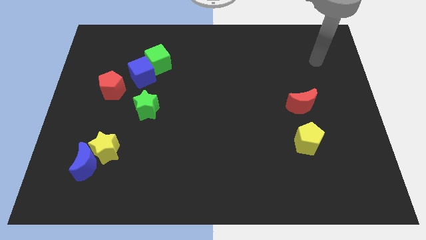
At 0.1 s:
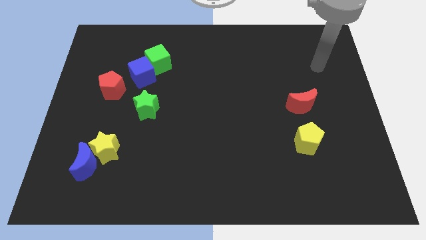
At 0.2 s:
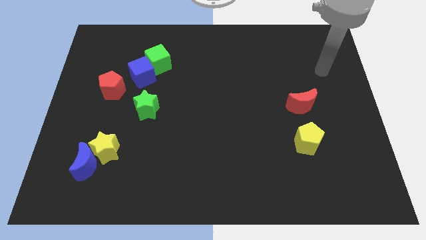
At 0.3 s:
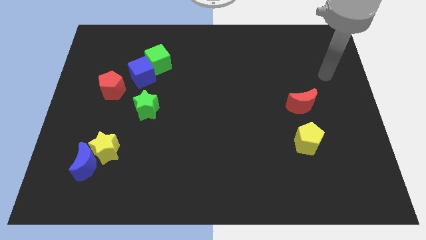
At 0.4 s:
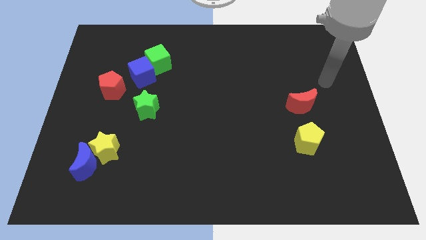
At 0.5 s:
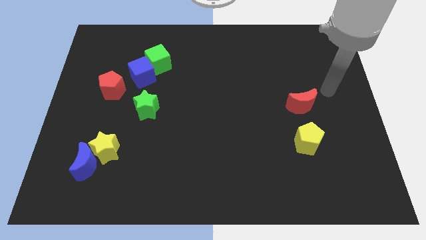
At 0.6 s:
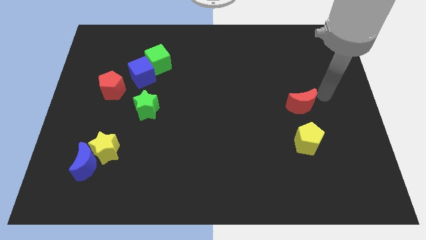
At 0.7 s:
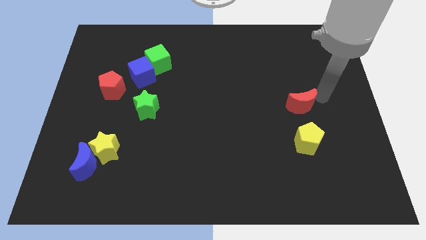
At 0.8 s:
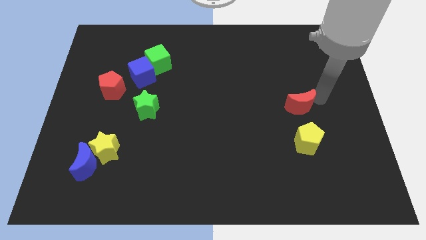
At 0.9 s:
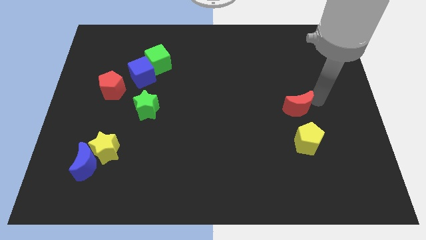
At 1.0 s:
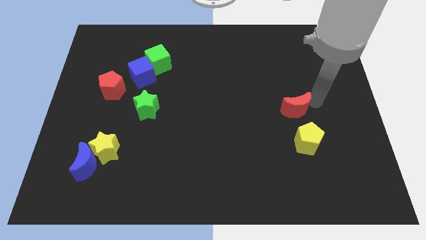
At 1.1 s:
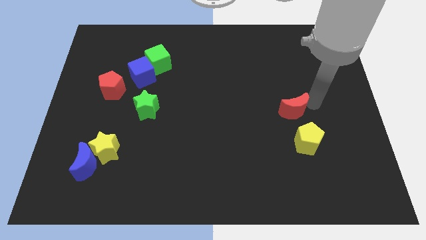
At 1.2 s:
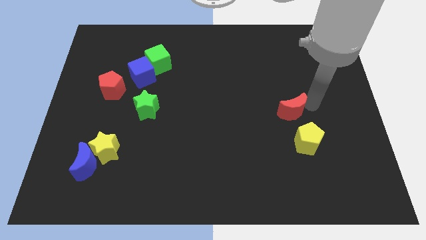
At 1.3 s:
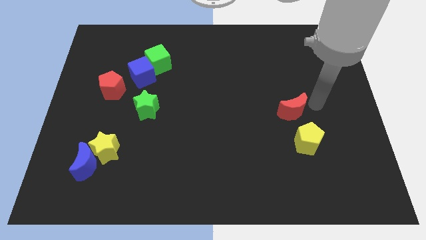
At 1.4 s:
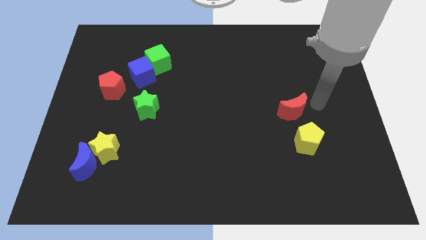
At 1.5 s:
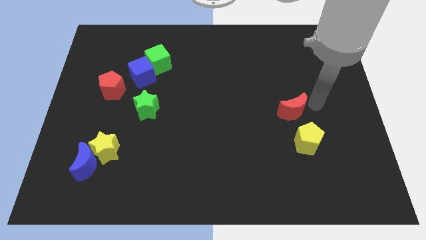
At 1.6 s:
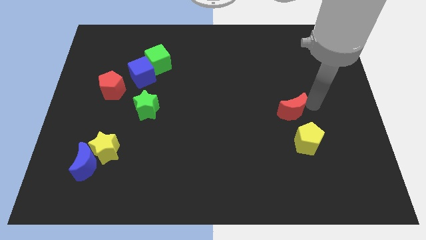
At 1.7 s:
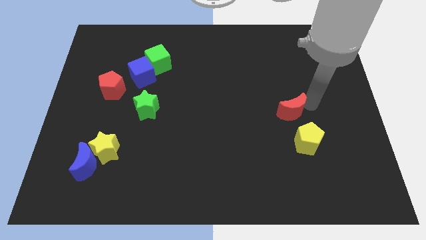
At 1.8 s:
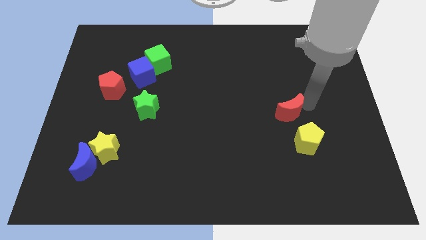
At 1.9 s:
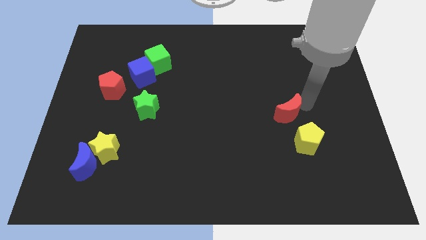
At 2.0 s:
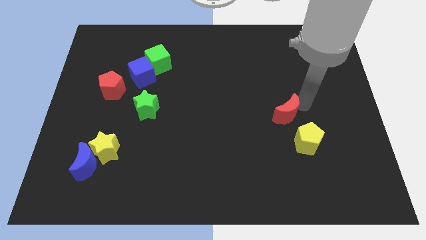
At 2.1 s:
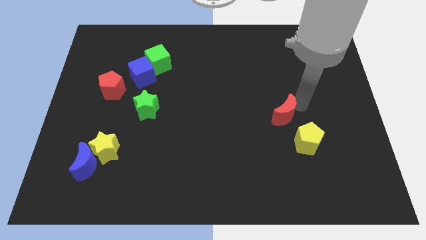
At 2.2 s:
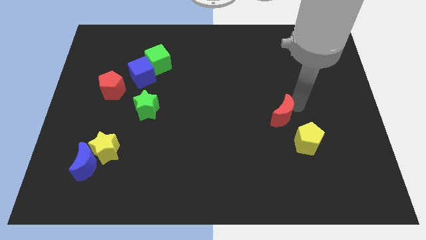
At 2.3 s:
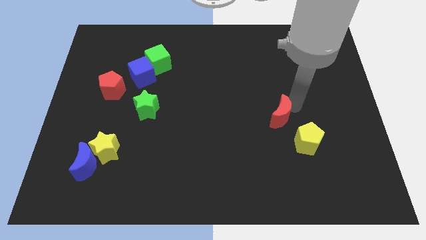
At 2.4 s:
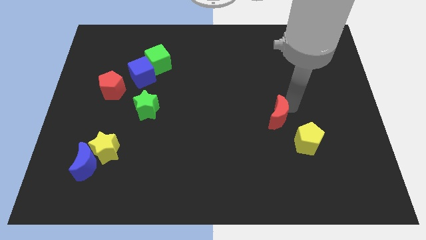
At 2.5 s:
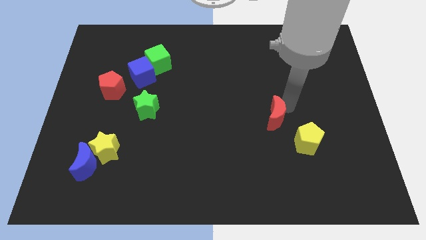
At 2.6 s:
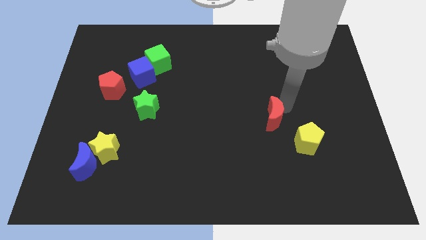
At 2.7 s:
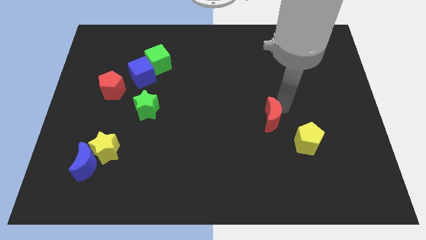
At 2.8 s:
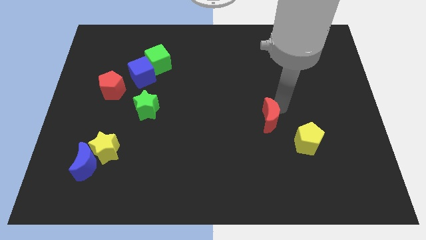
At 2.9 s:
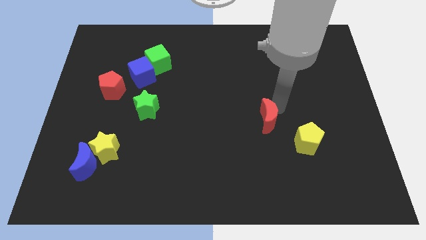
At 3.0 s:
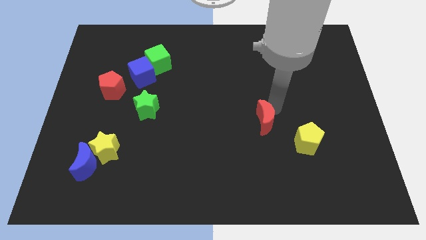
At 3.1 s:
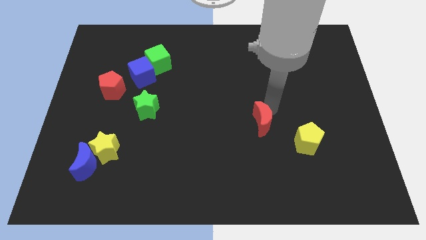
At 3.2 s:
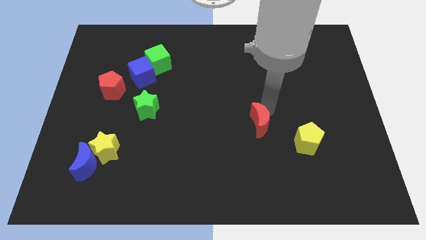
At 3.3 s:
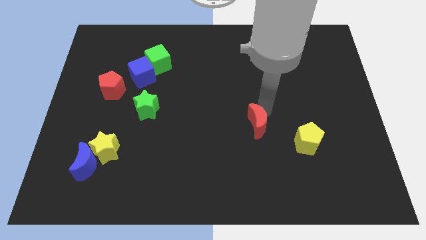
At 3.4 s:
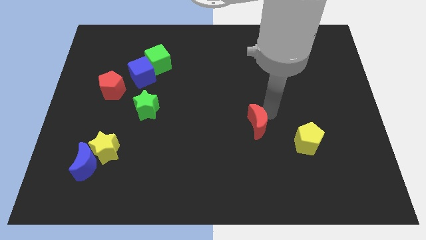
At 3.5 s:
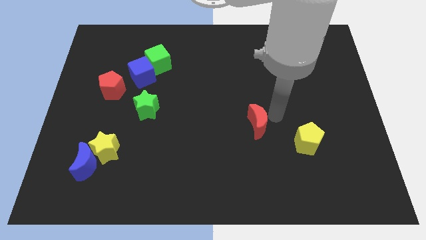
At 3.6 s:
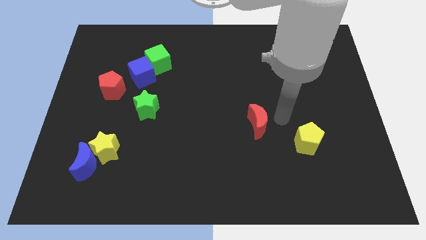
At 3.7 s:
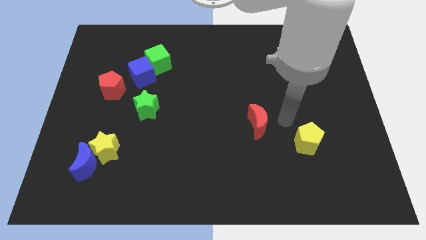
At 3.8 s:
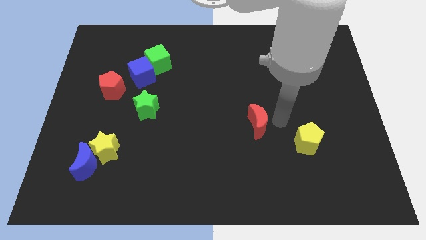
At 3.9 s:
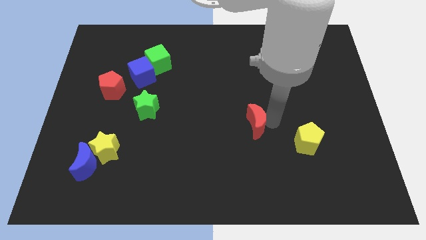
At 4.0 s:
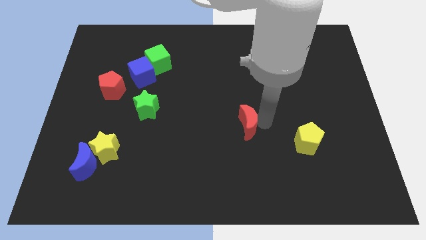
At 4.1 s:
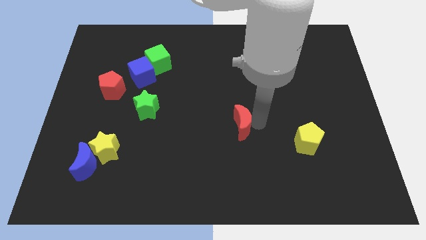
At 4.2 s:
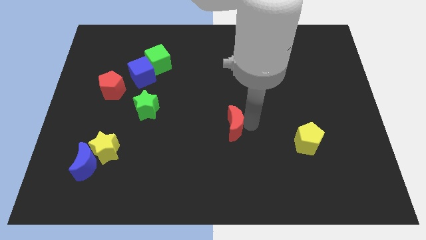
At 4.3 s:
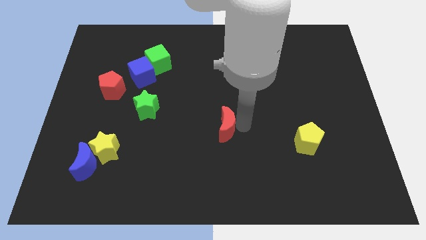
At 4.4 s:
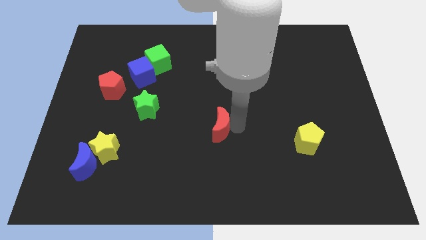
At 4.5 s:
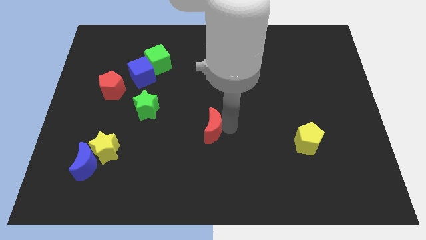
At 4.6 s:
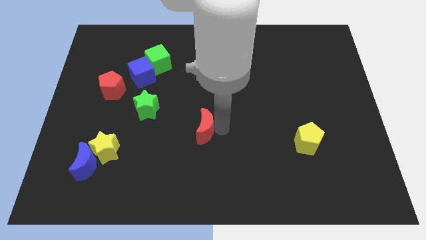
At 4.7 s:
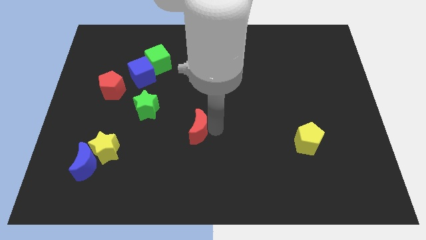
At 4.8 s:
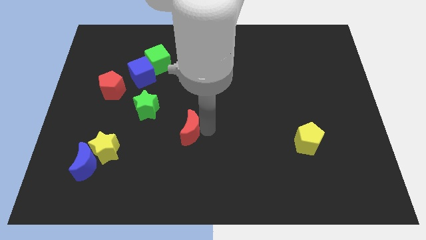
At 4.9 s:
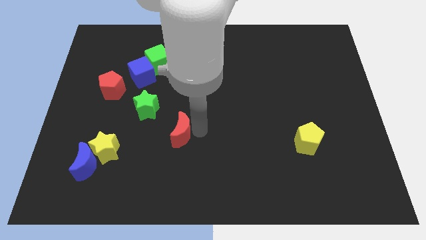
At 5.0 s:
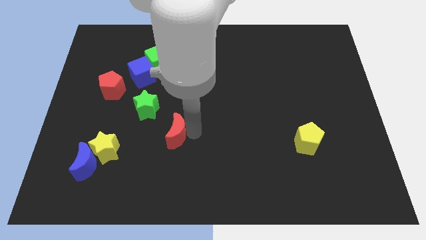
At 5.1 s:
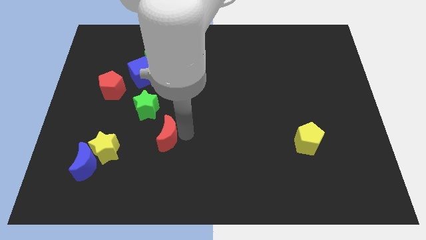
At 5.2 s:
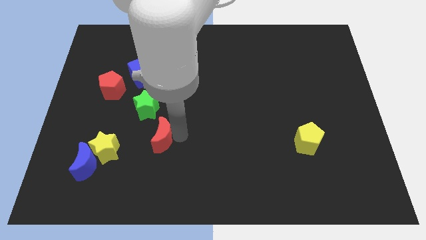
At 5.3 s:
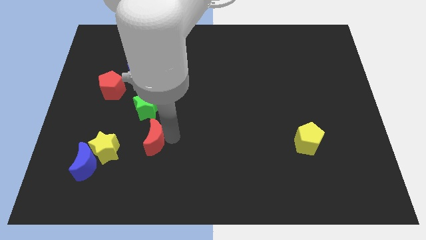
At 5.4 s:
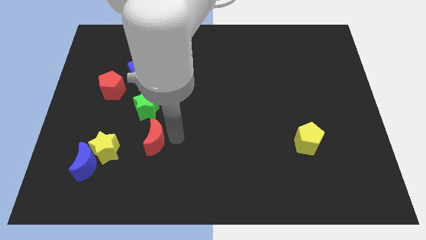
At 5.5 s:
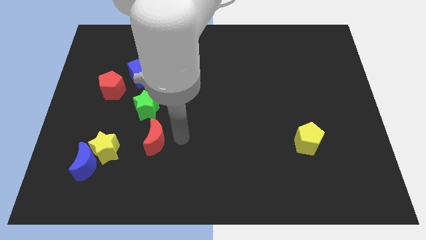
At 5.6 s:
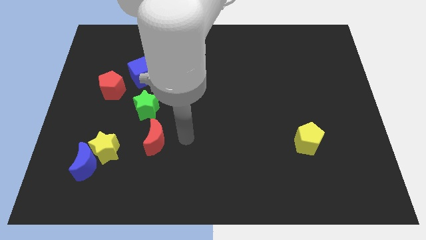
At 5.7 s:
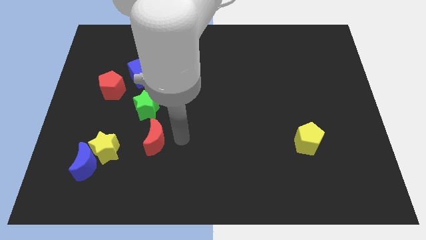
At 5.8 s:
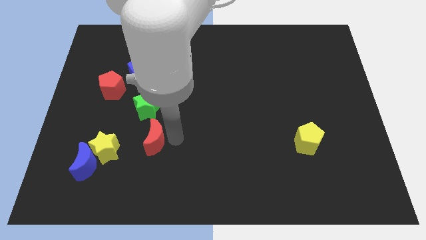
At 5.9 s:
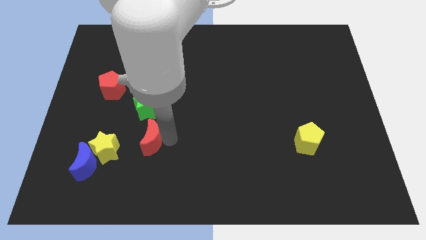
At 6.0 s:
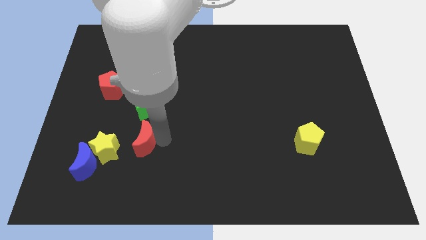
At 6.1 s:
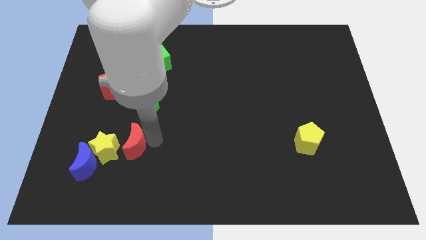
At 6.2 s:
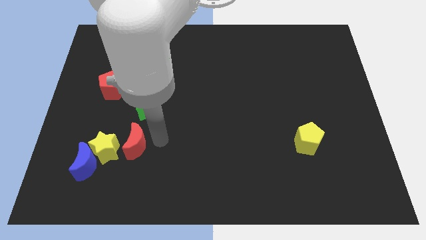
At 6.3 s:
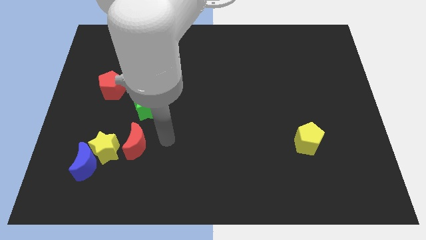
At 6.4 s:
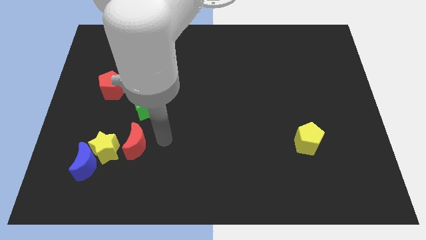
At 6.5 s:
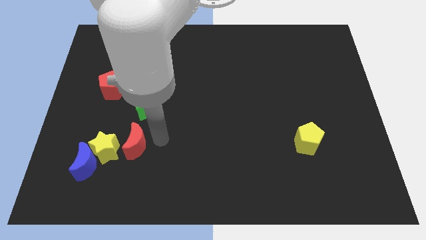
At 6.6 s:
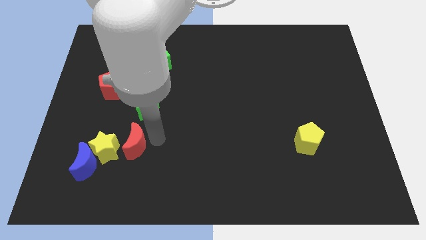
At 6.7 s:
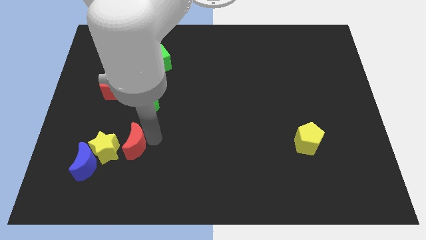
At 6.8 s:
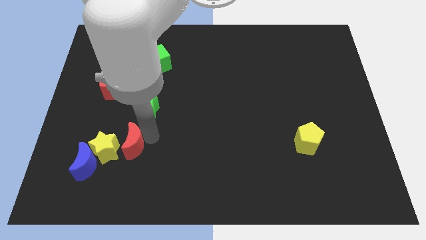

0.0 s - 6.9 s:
put the red moon to the yellow star
